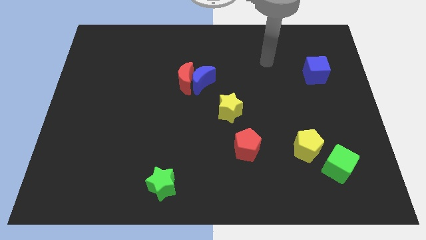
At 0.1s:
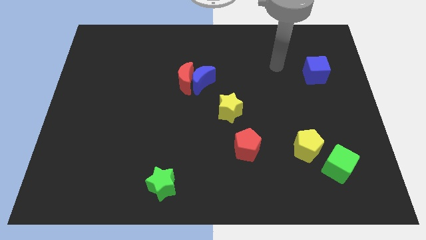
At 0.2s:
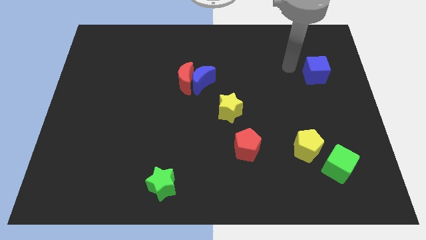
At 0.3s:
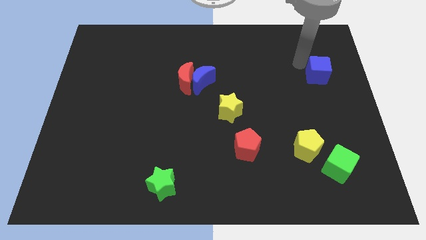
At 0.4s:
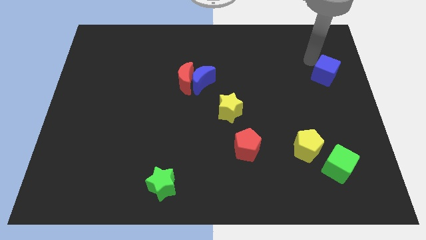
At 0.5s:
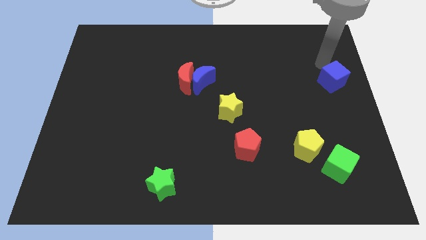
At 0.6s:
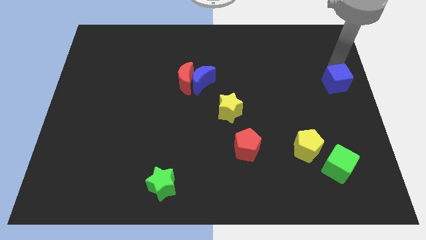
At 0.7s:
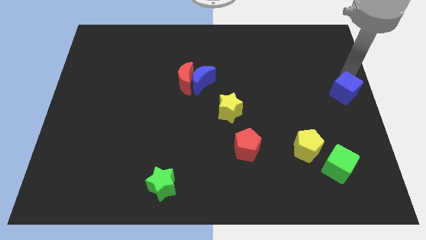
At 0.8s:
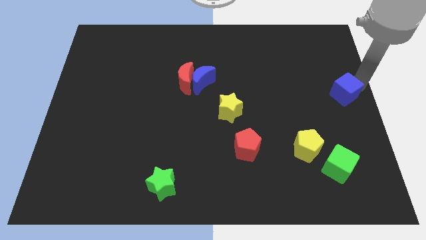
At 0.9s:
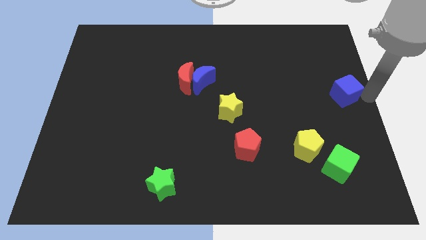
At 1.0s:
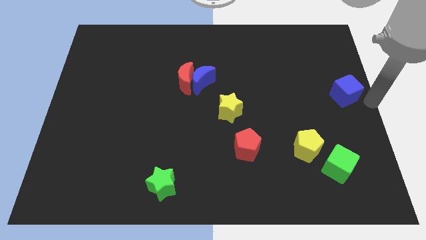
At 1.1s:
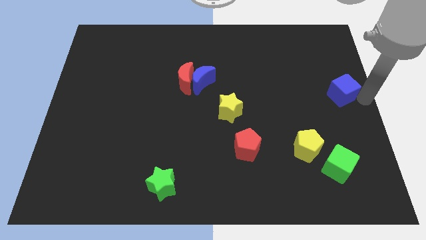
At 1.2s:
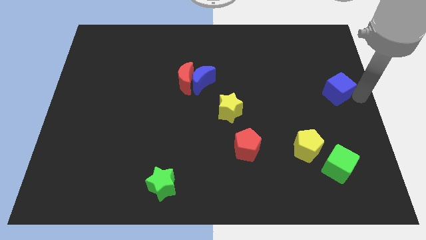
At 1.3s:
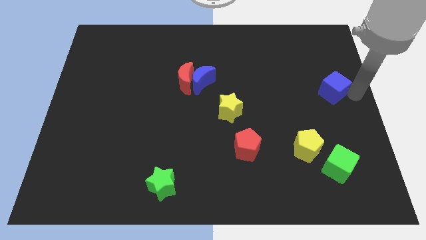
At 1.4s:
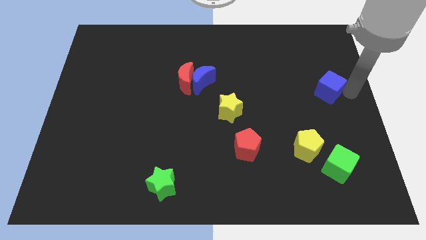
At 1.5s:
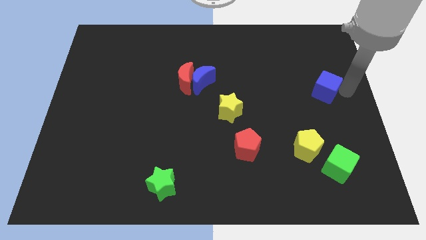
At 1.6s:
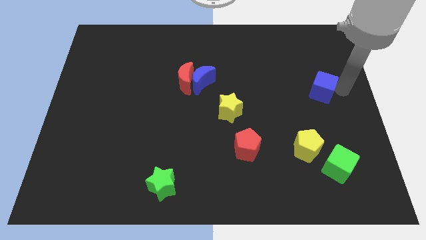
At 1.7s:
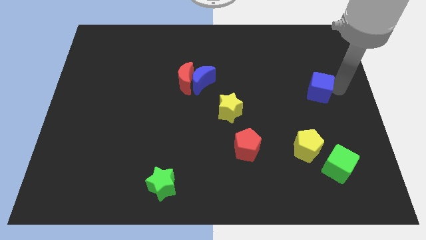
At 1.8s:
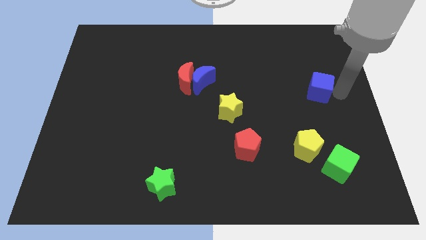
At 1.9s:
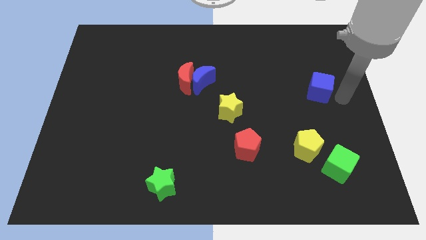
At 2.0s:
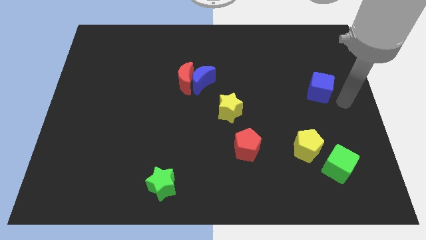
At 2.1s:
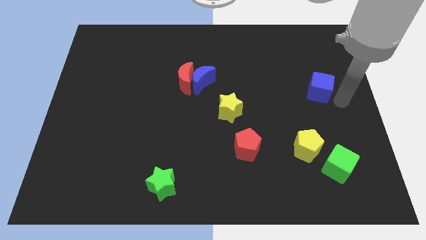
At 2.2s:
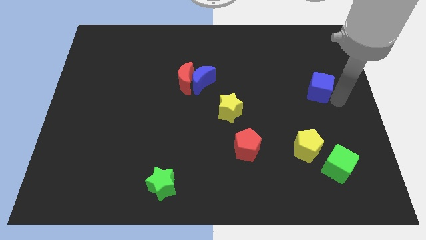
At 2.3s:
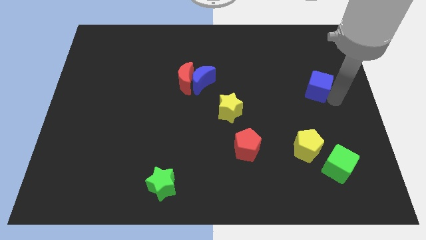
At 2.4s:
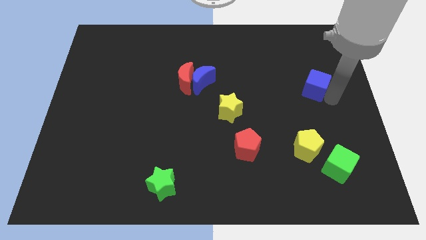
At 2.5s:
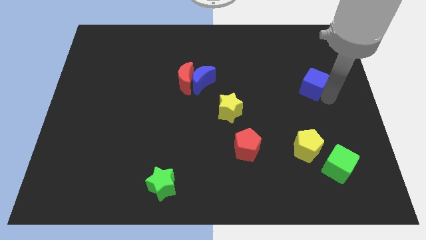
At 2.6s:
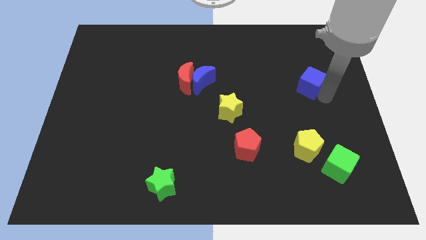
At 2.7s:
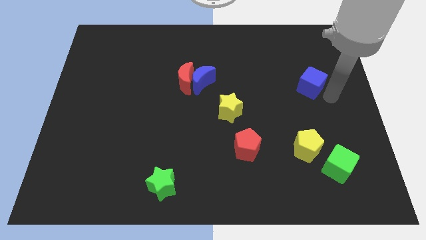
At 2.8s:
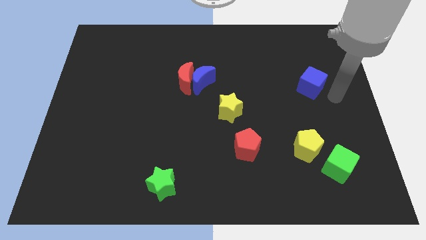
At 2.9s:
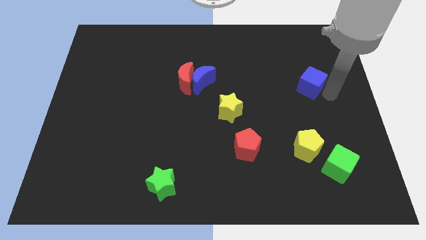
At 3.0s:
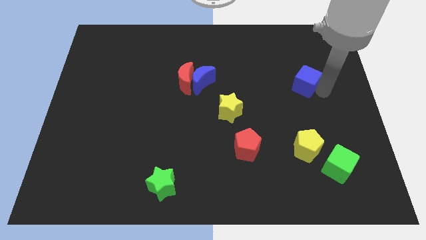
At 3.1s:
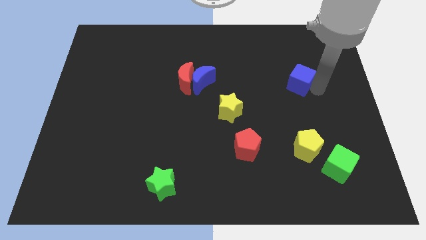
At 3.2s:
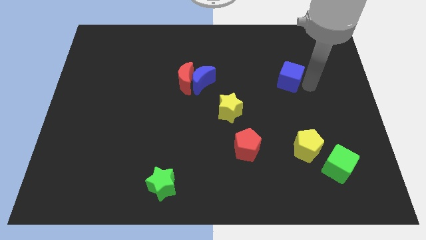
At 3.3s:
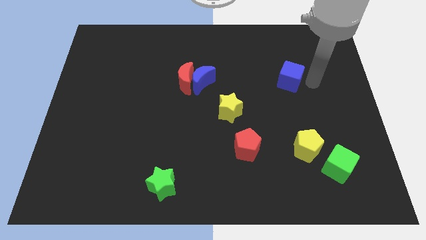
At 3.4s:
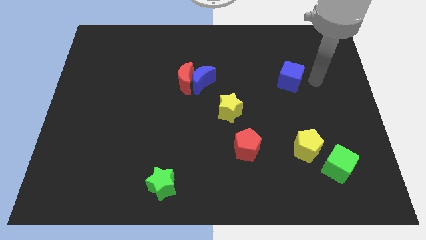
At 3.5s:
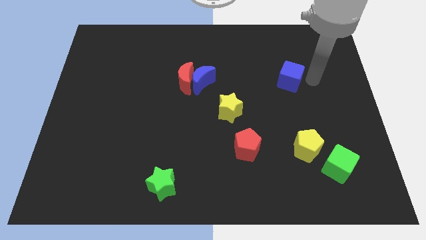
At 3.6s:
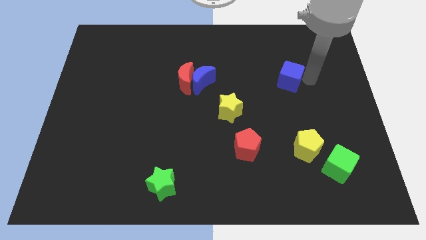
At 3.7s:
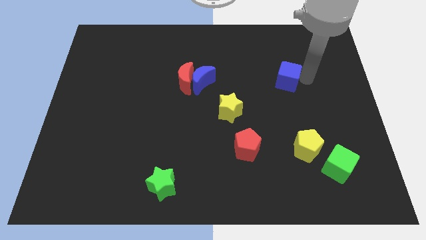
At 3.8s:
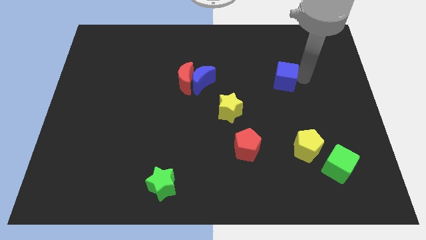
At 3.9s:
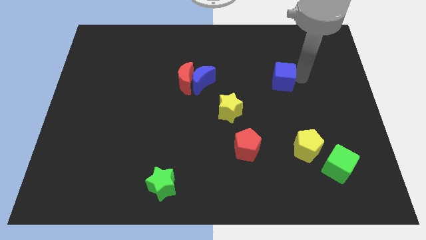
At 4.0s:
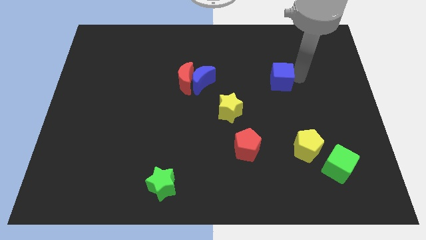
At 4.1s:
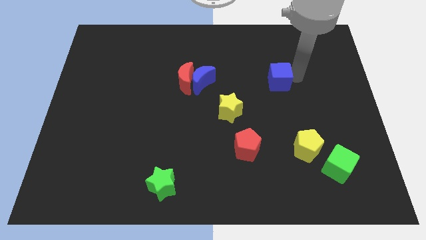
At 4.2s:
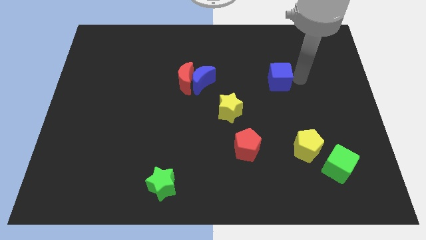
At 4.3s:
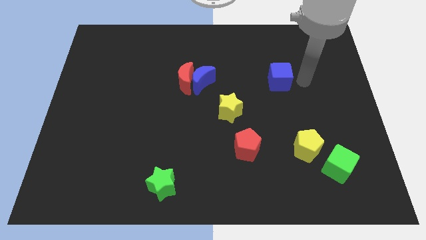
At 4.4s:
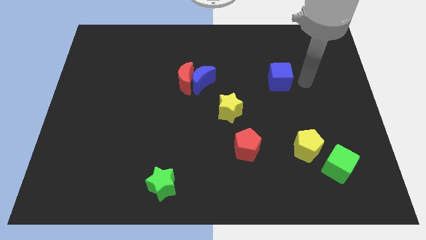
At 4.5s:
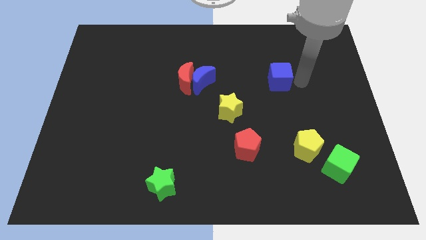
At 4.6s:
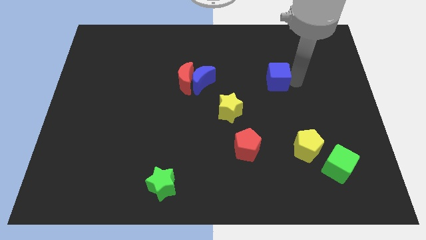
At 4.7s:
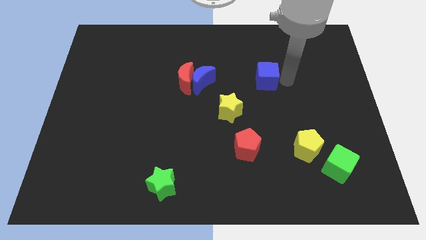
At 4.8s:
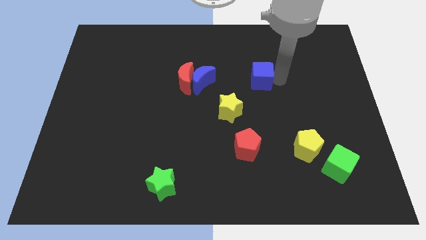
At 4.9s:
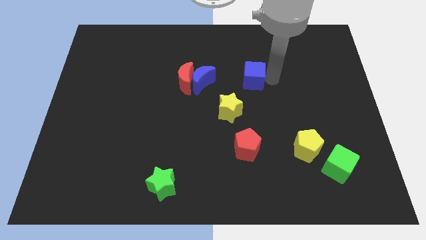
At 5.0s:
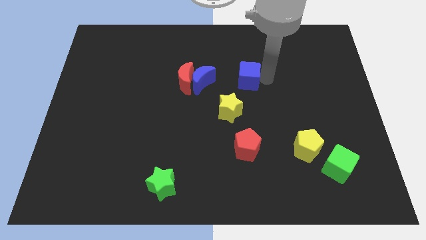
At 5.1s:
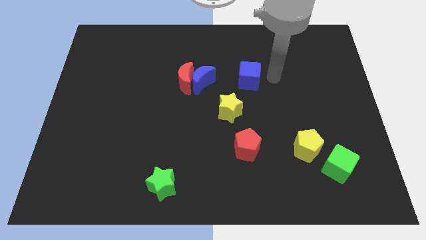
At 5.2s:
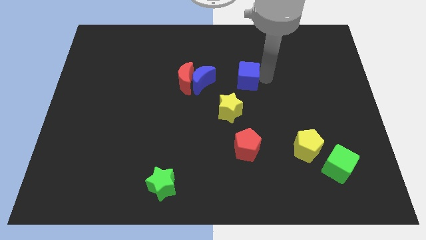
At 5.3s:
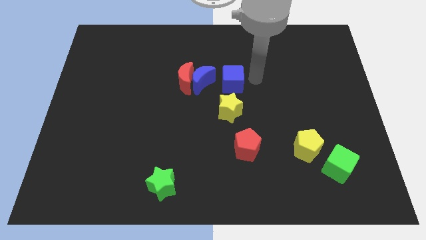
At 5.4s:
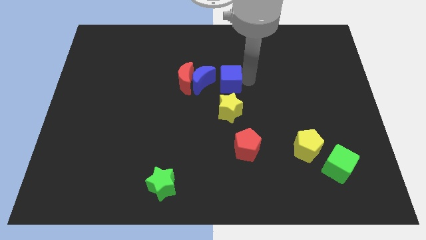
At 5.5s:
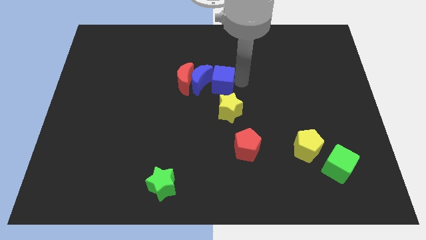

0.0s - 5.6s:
move the blue cube close to the blue moon
